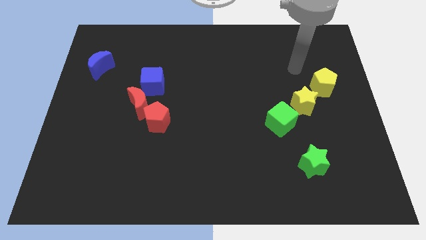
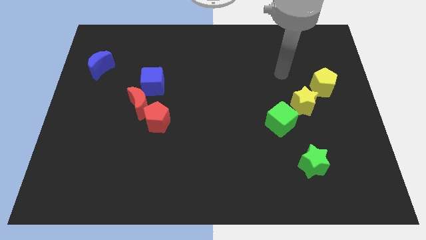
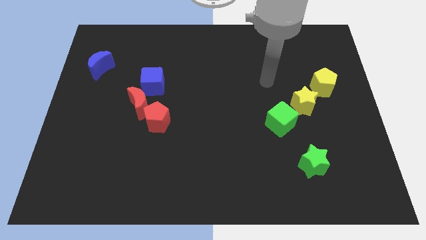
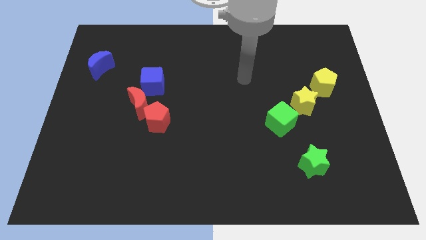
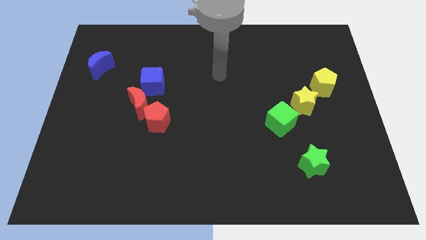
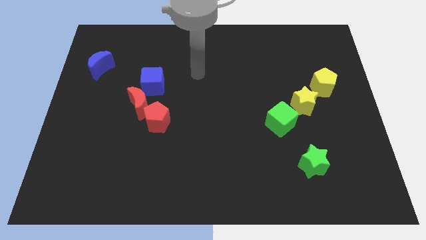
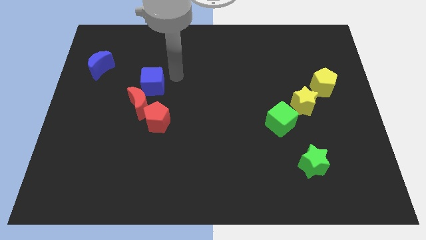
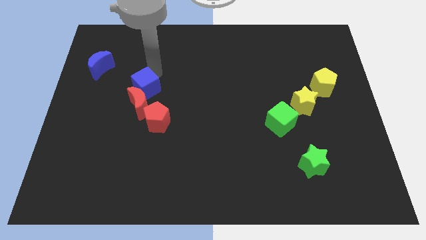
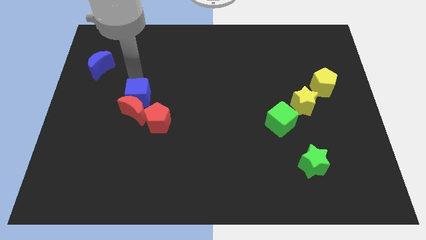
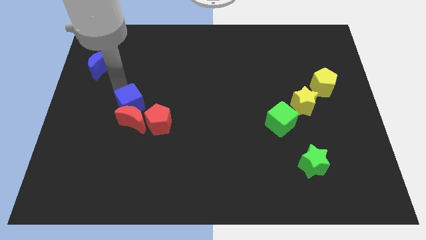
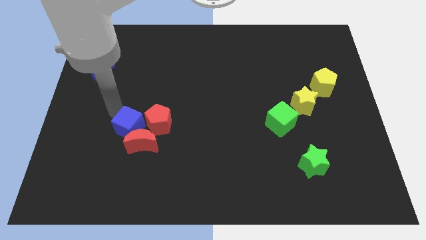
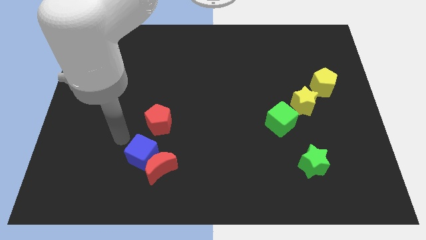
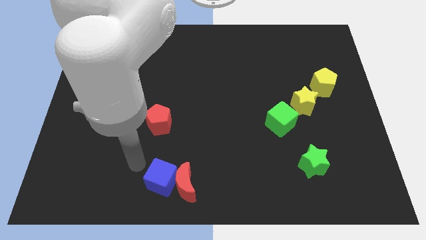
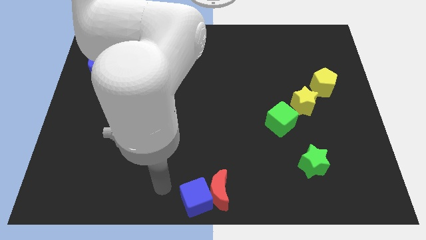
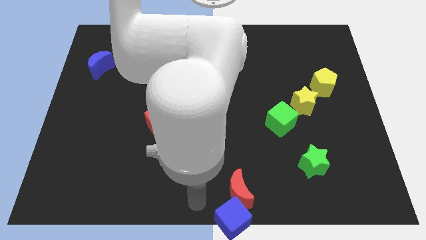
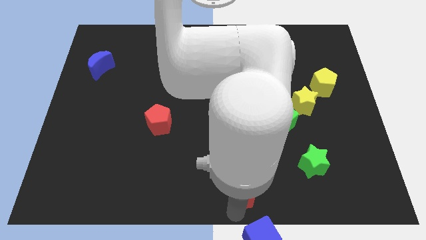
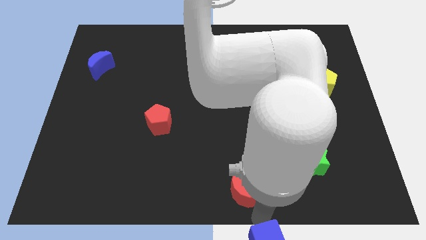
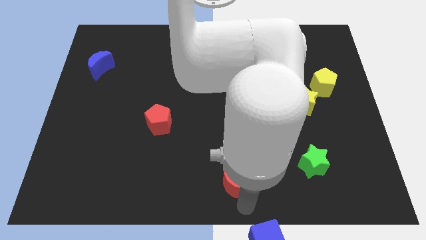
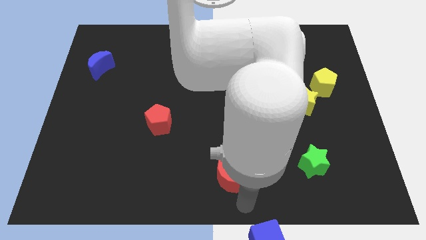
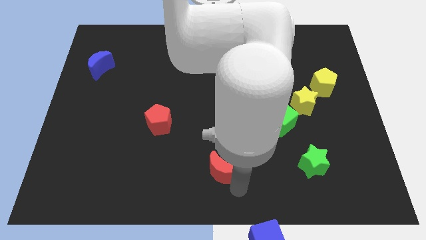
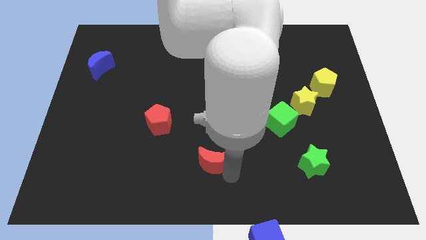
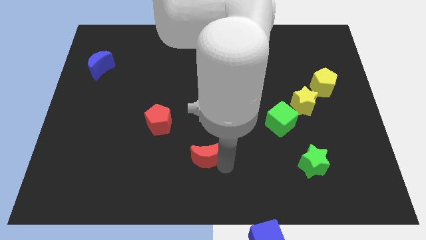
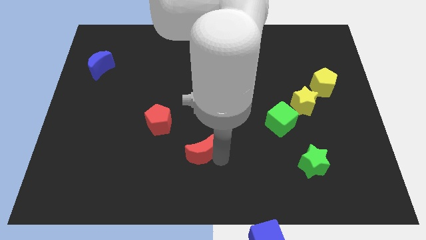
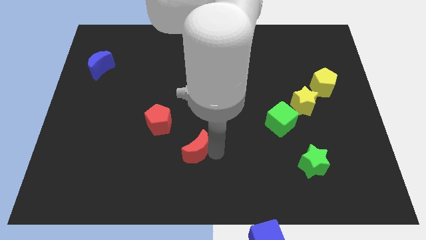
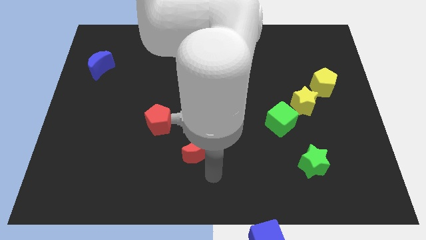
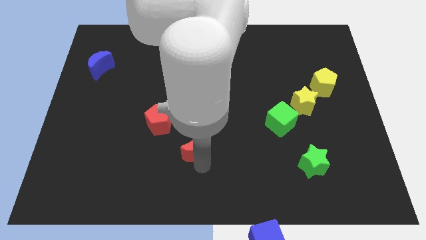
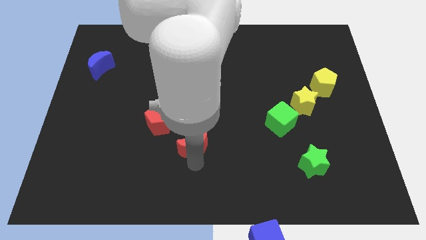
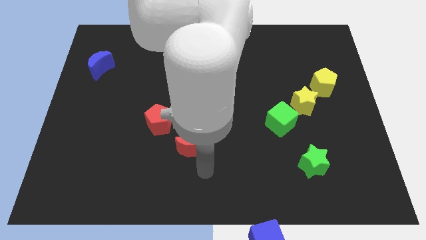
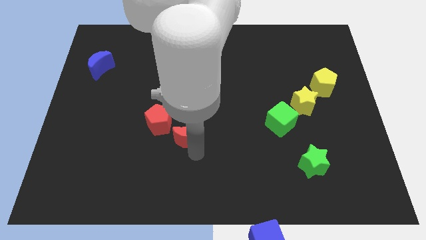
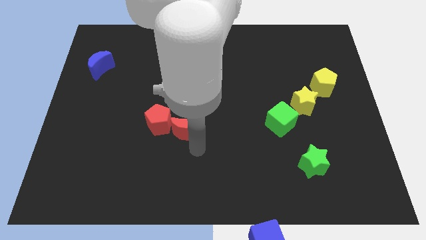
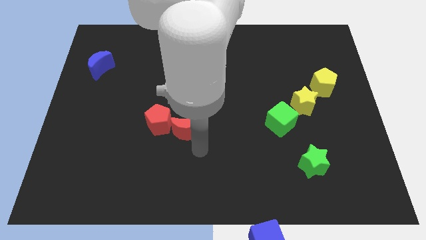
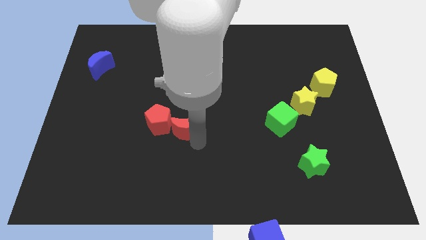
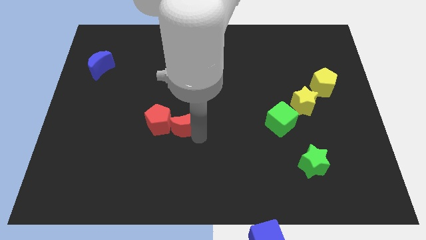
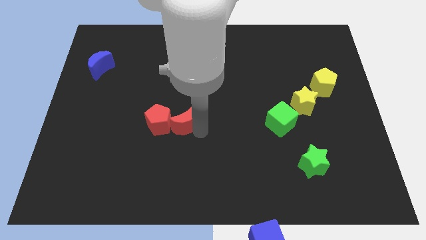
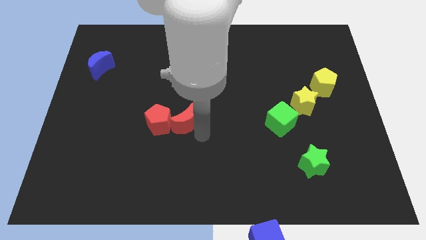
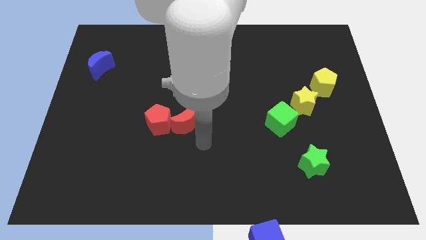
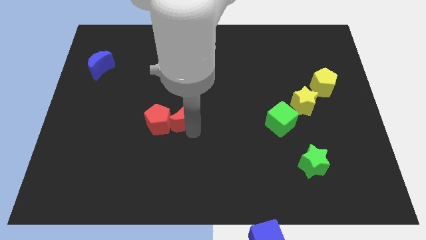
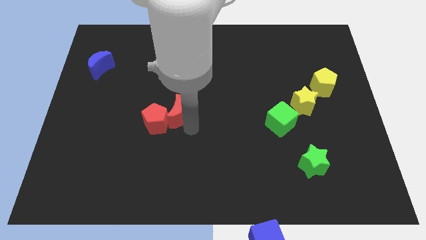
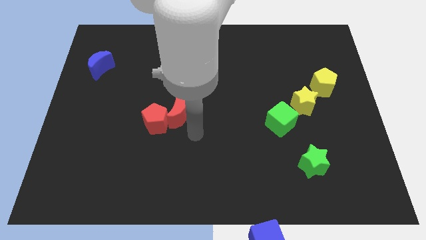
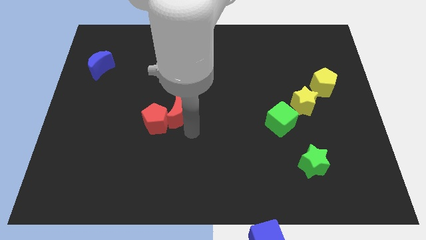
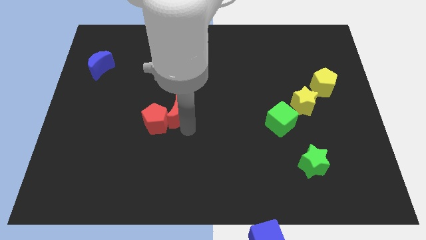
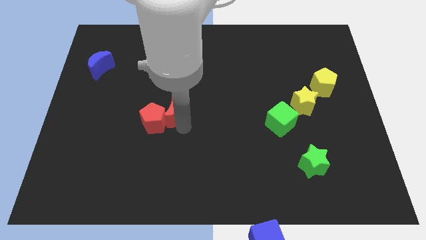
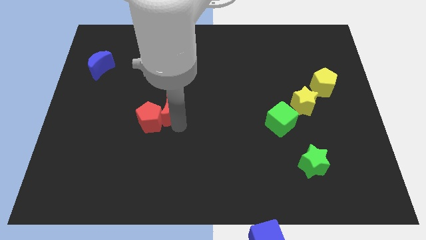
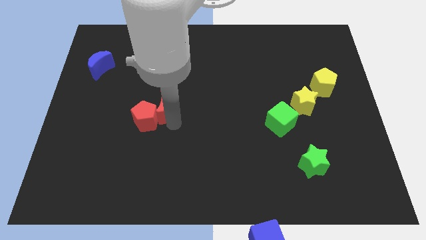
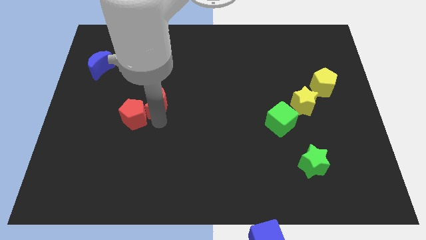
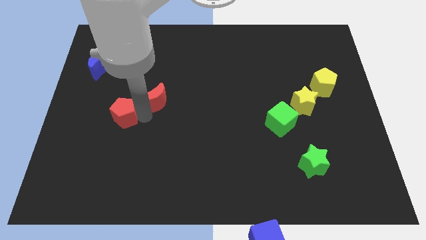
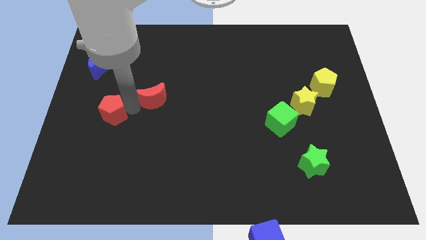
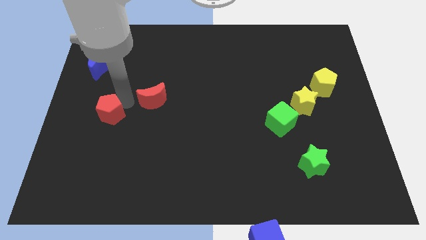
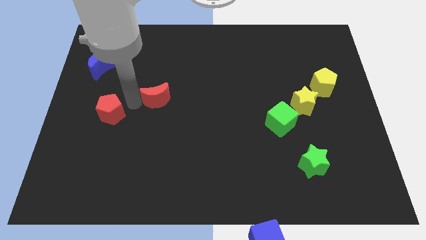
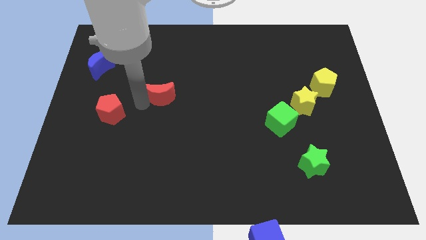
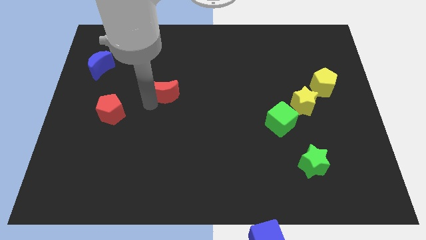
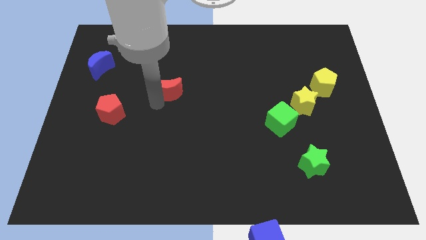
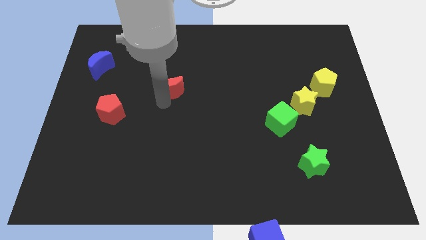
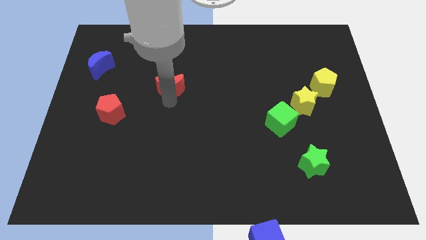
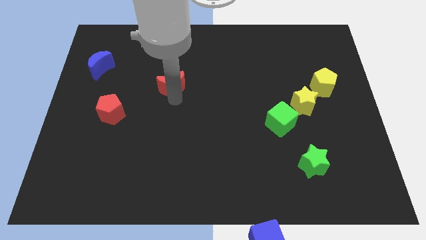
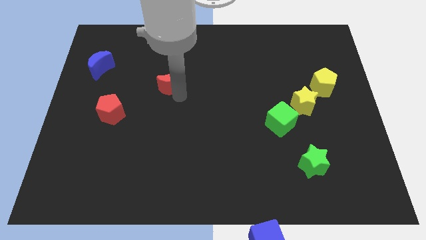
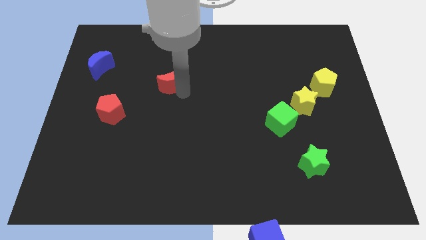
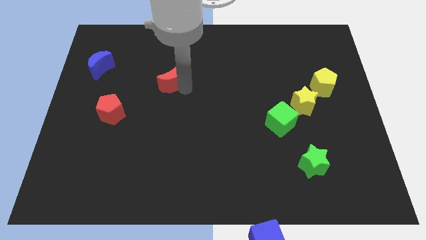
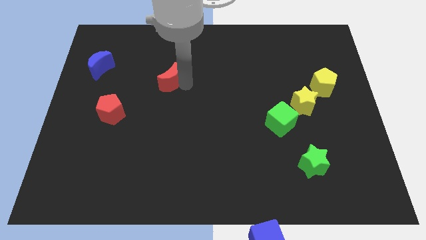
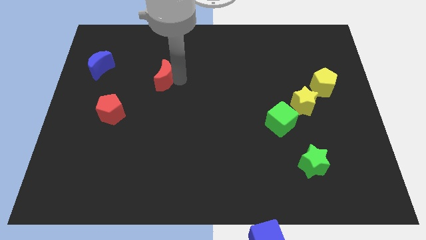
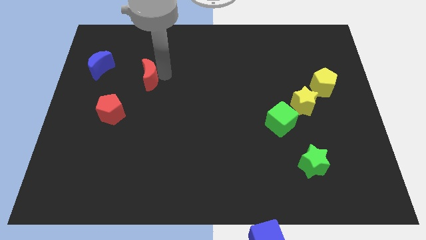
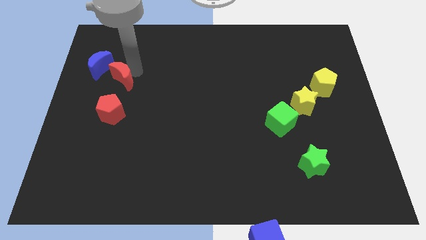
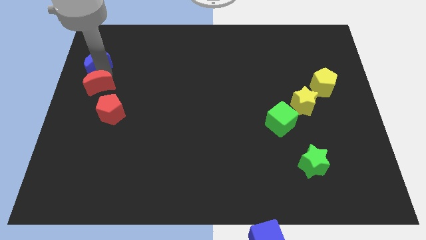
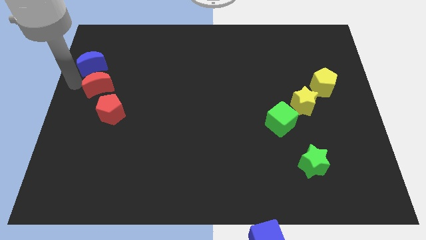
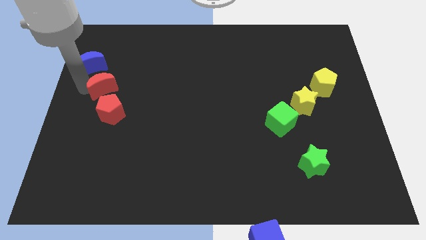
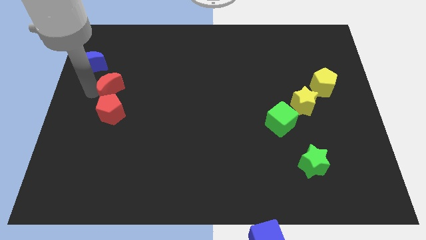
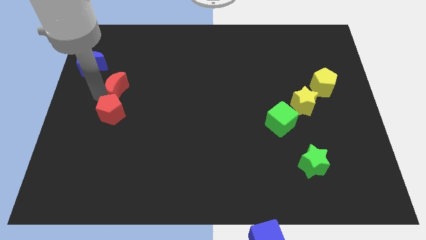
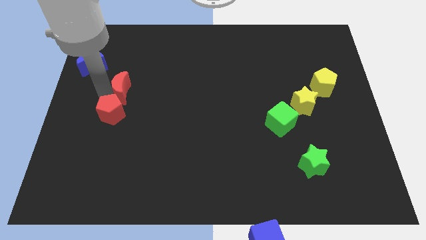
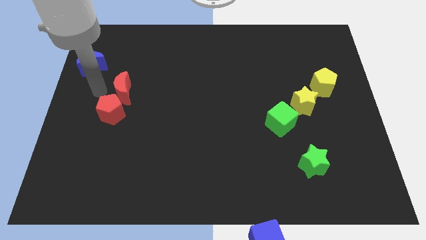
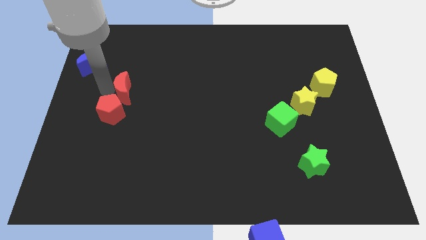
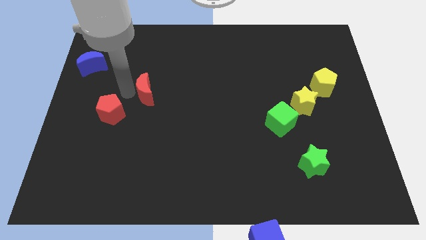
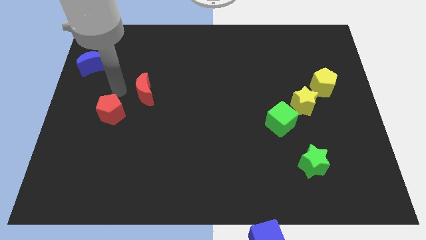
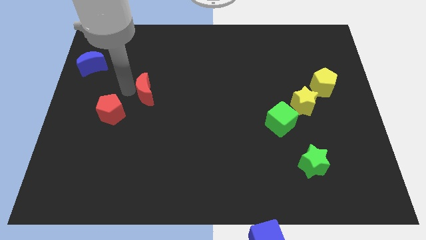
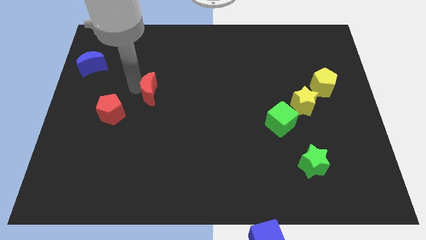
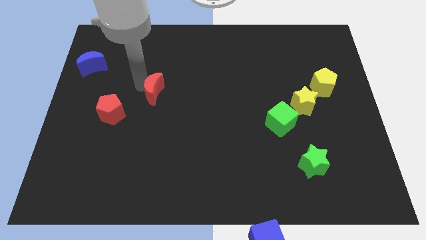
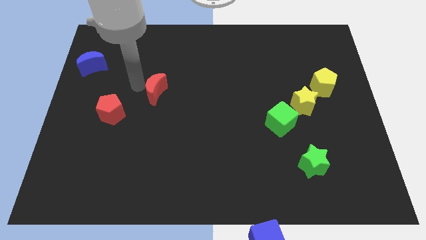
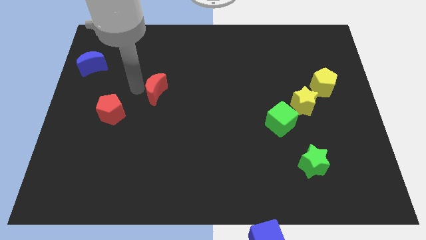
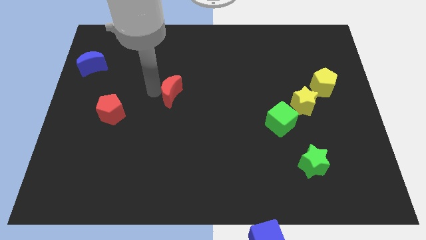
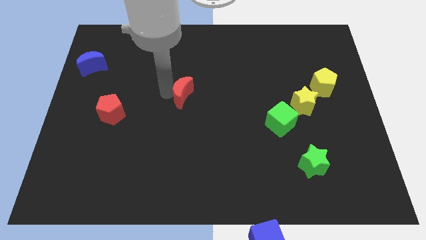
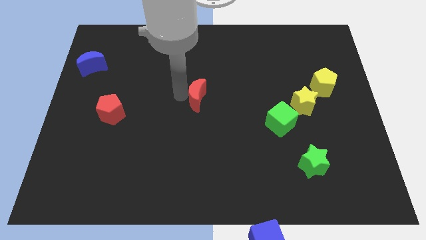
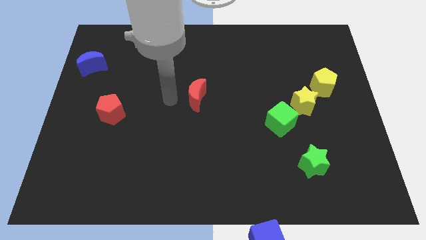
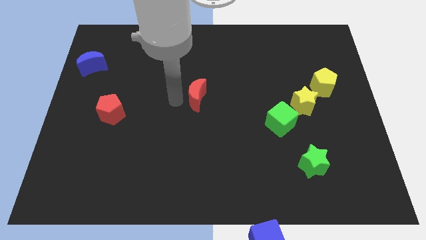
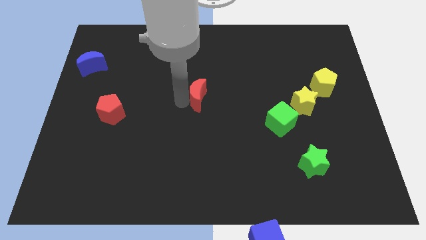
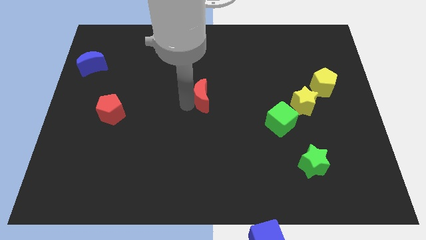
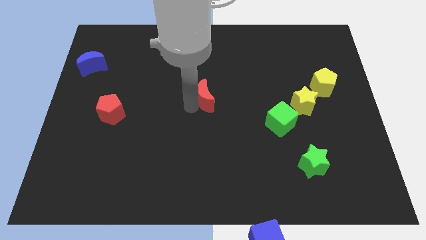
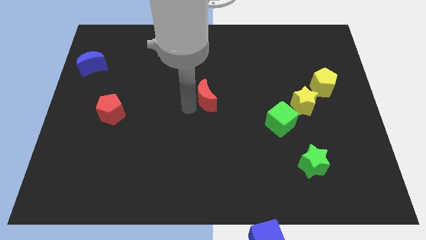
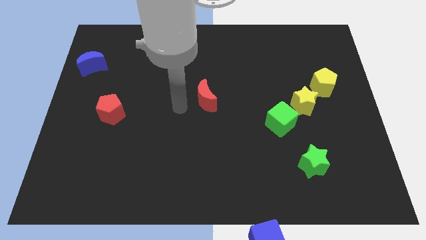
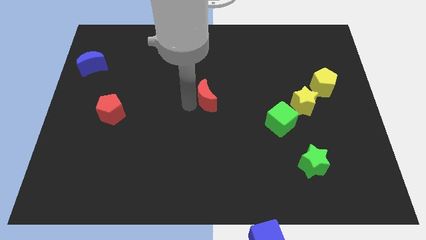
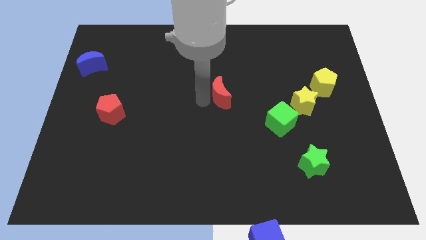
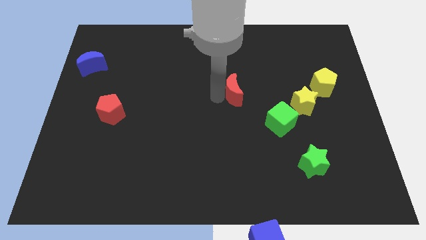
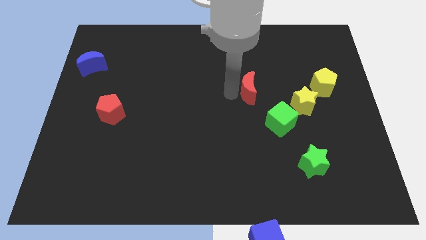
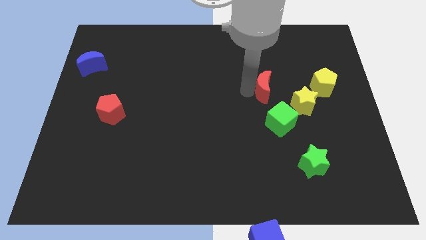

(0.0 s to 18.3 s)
slide the red moon to the top left side of the yellow star
